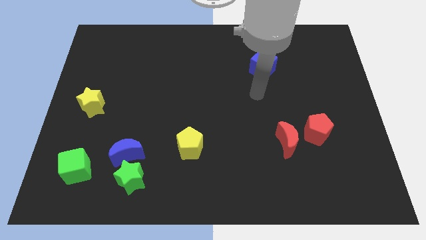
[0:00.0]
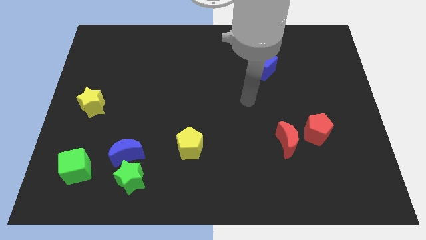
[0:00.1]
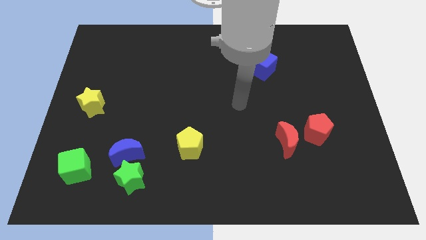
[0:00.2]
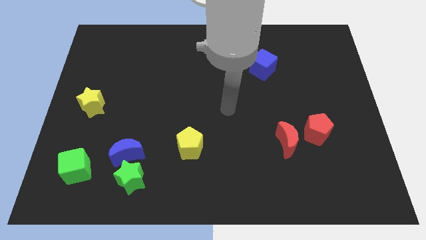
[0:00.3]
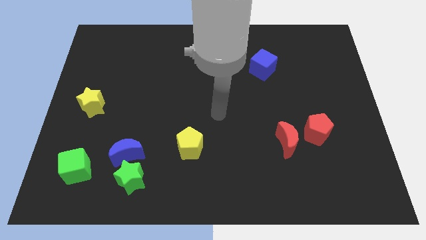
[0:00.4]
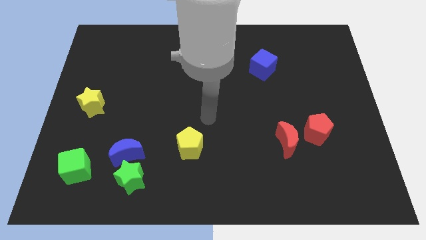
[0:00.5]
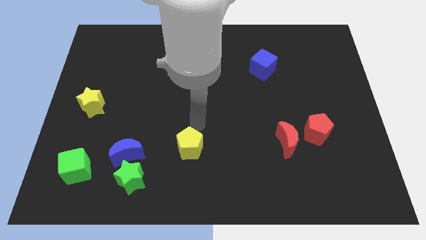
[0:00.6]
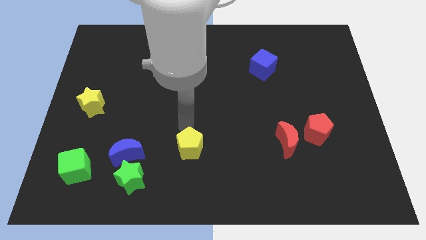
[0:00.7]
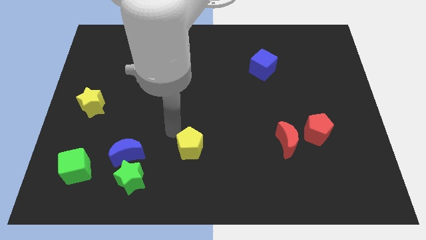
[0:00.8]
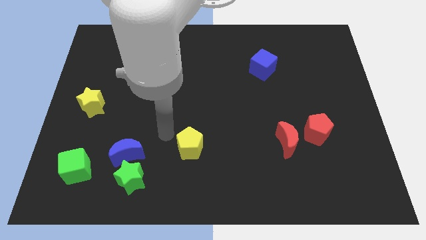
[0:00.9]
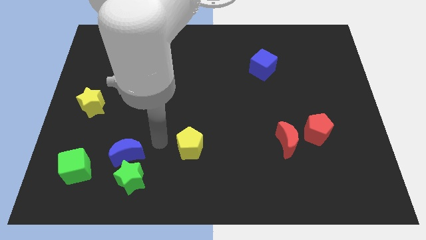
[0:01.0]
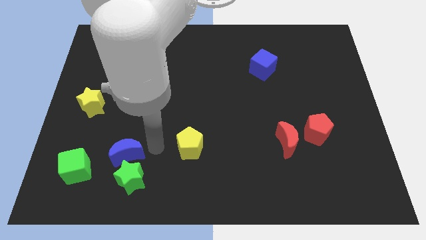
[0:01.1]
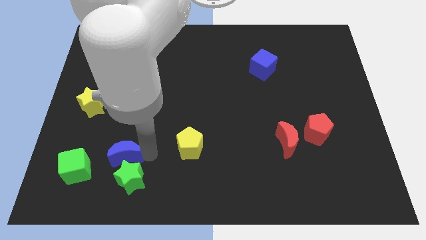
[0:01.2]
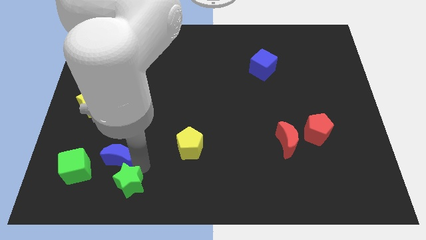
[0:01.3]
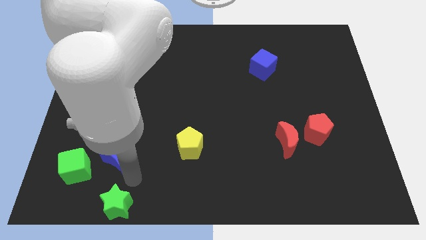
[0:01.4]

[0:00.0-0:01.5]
pull the blue moon apart from the green star

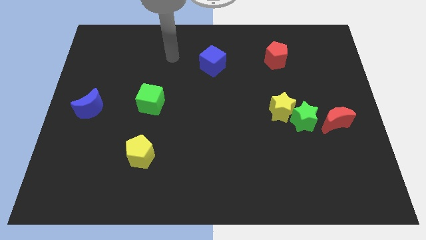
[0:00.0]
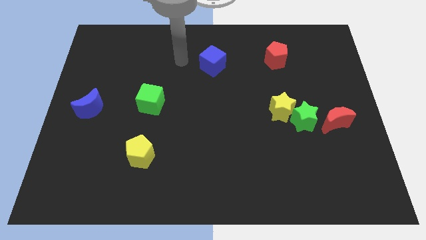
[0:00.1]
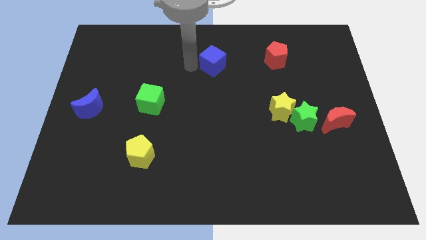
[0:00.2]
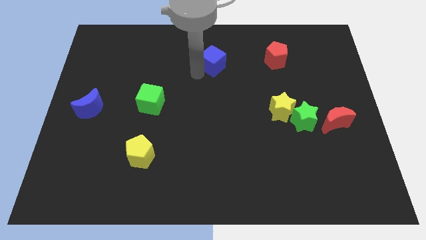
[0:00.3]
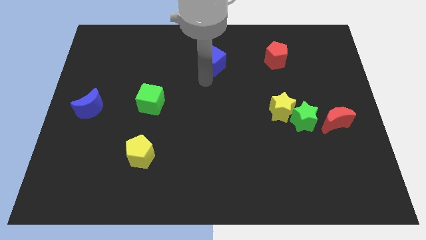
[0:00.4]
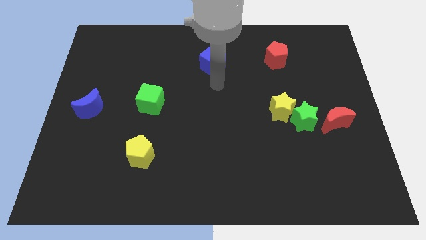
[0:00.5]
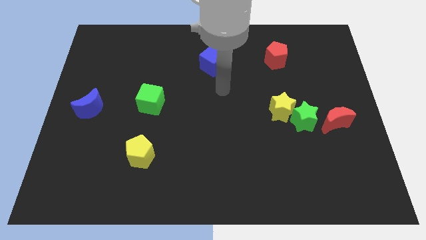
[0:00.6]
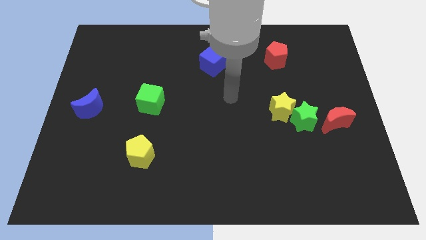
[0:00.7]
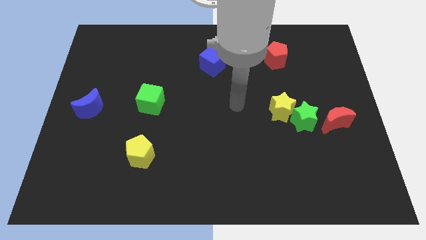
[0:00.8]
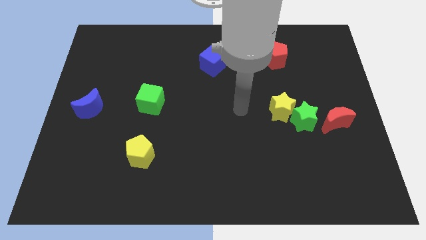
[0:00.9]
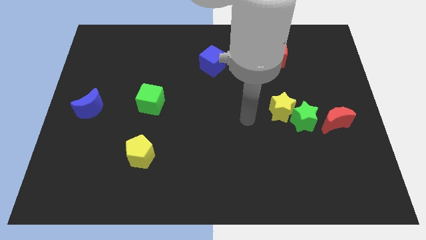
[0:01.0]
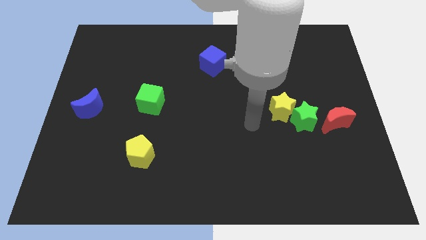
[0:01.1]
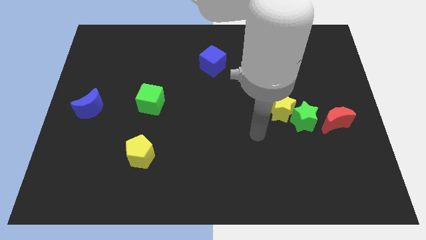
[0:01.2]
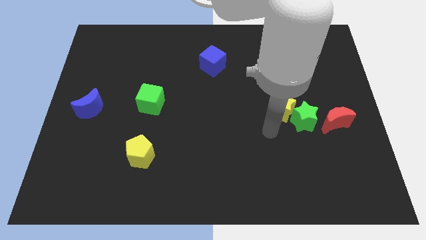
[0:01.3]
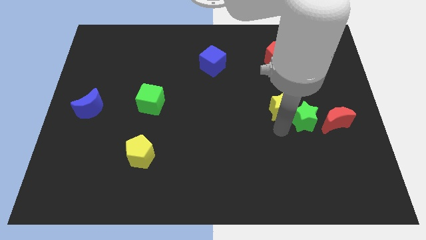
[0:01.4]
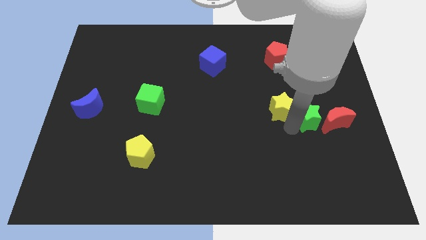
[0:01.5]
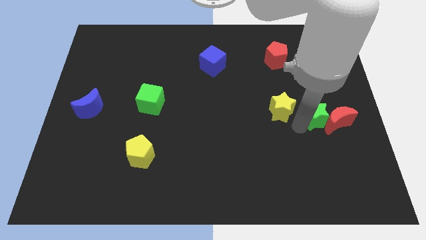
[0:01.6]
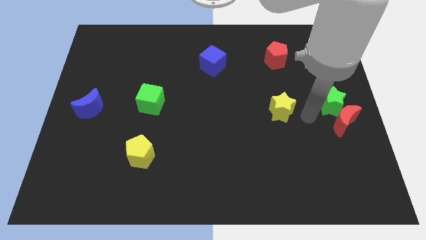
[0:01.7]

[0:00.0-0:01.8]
separate the yellow star from the green star

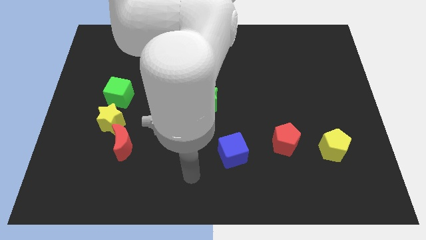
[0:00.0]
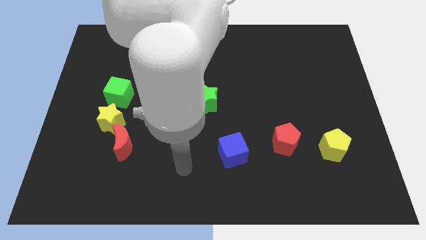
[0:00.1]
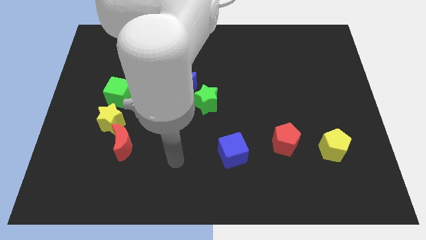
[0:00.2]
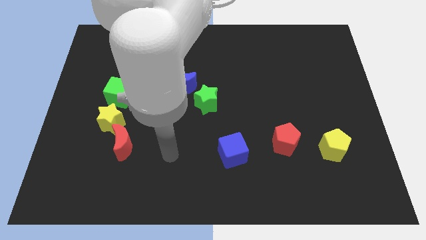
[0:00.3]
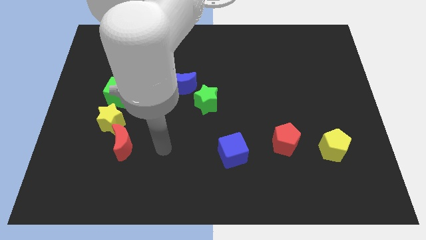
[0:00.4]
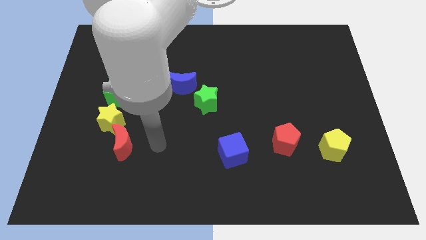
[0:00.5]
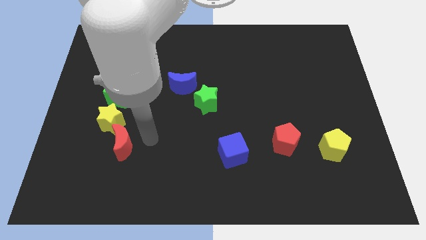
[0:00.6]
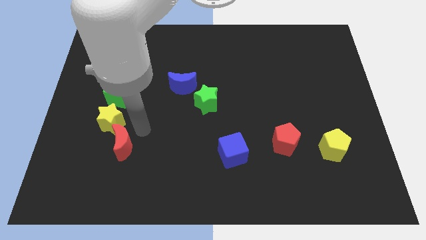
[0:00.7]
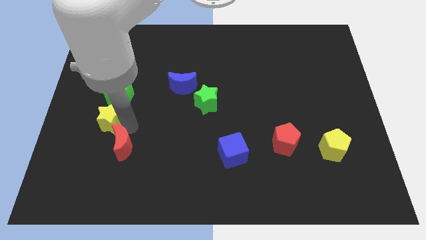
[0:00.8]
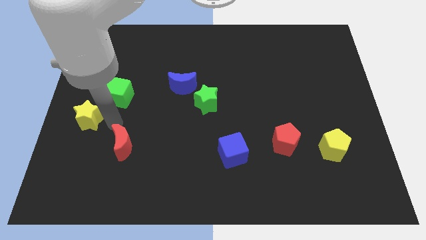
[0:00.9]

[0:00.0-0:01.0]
separate the red moon from the yellow star

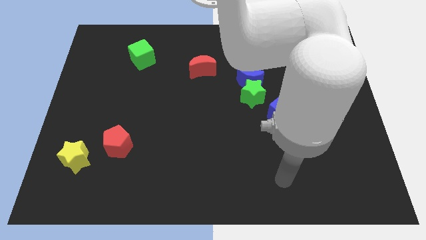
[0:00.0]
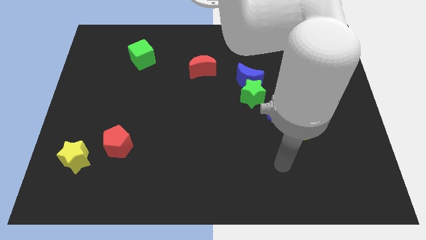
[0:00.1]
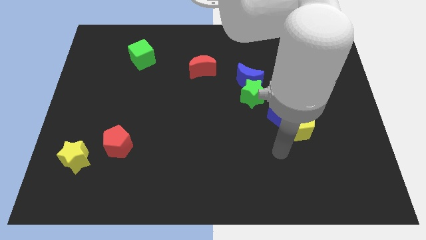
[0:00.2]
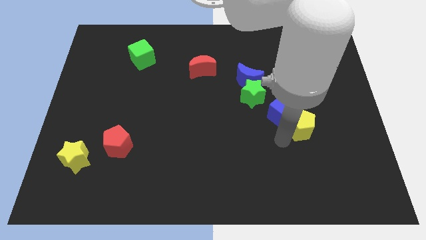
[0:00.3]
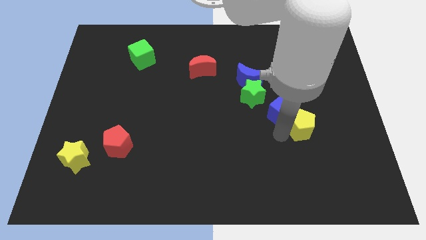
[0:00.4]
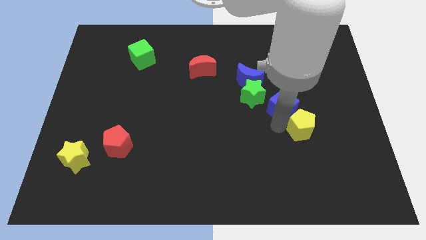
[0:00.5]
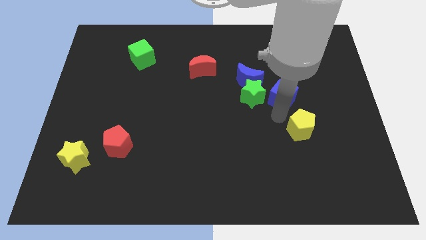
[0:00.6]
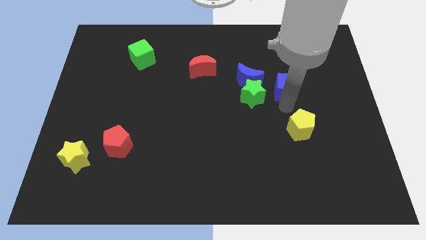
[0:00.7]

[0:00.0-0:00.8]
pull the yellow pentagon apart from the blue cube

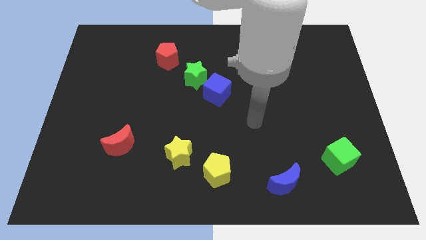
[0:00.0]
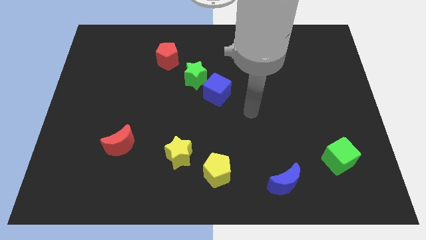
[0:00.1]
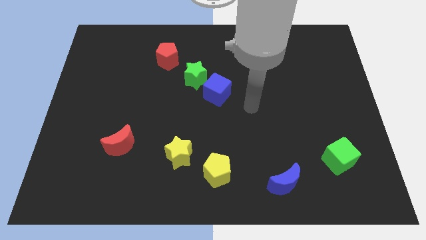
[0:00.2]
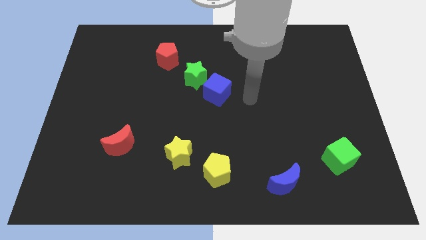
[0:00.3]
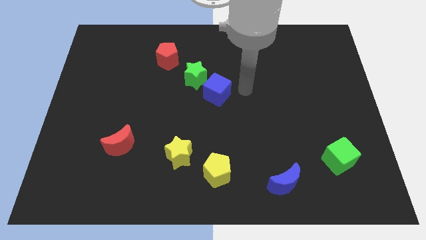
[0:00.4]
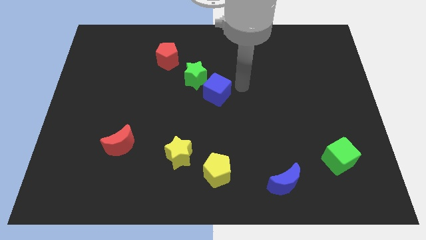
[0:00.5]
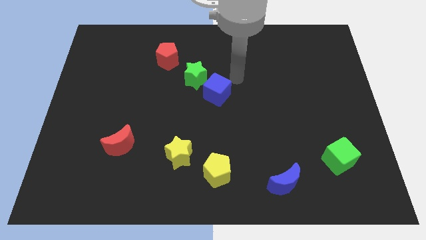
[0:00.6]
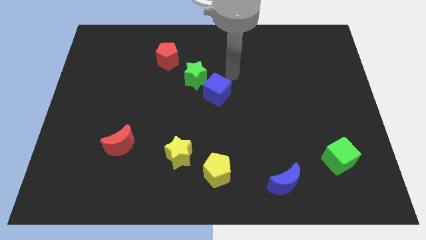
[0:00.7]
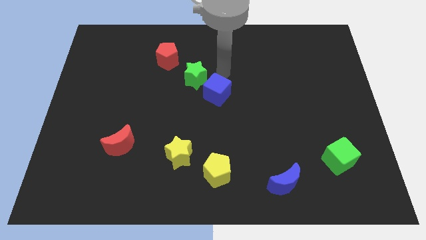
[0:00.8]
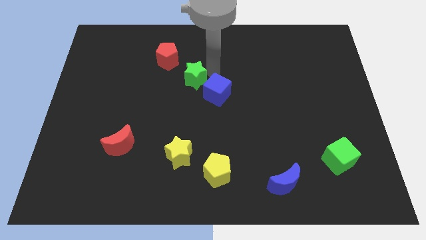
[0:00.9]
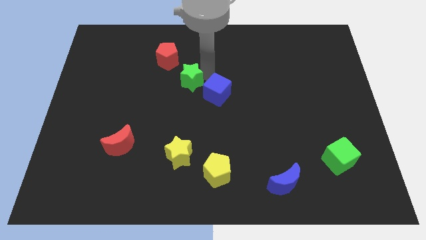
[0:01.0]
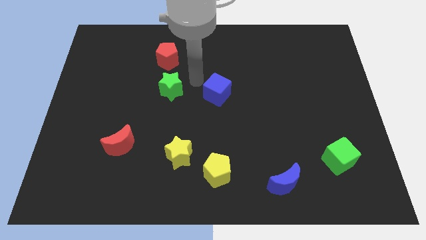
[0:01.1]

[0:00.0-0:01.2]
move the blue cube away from the green star

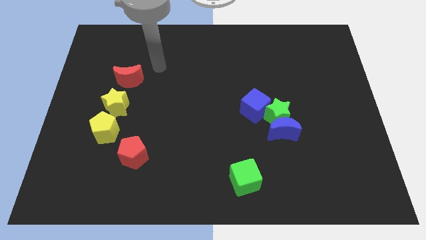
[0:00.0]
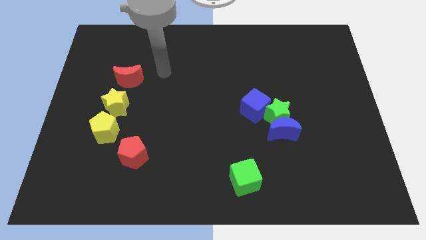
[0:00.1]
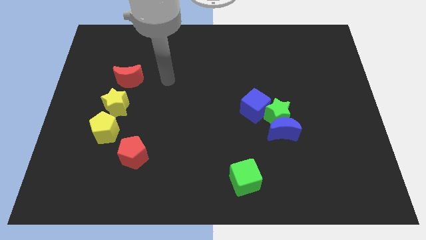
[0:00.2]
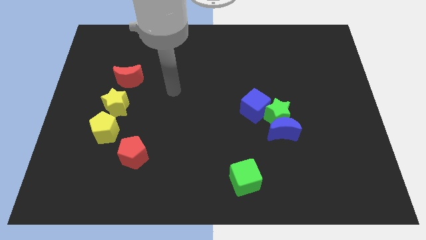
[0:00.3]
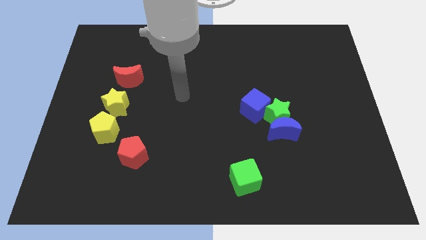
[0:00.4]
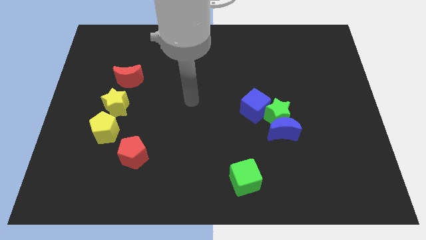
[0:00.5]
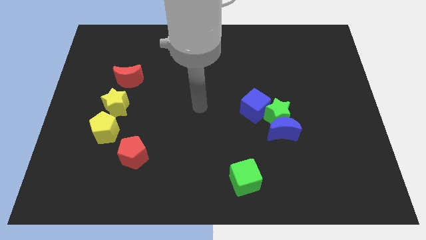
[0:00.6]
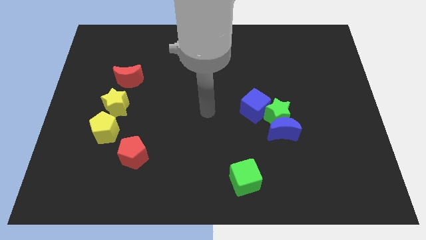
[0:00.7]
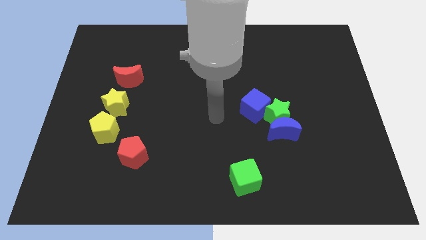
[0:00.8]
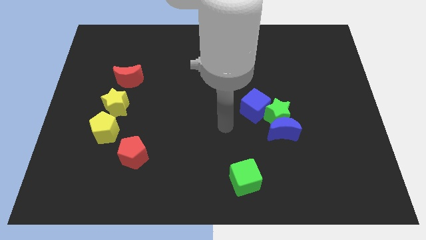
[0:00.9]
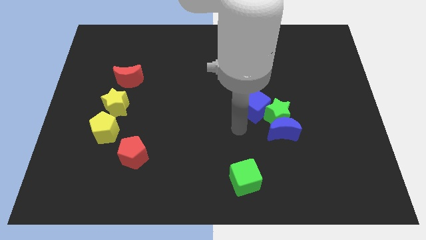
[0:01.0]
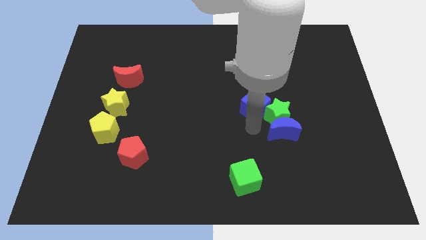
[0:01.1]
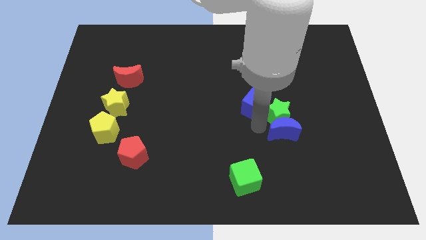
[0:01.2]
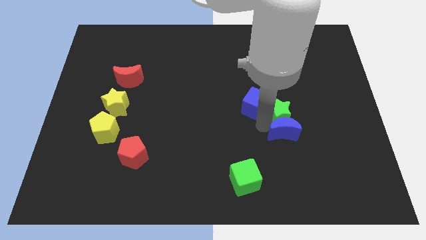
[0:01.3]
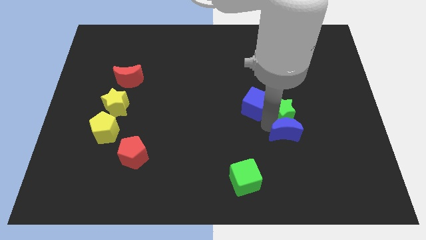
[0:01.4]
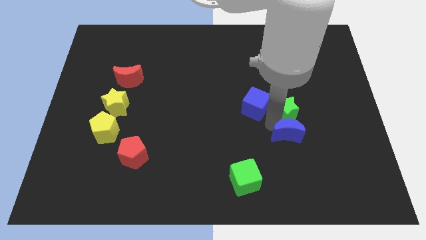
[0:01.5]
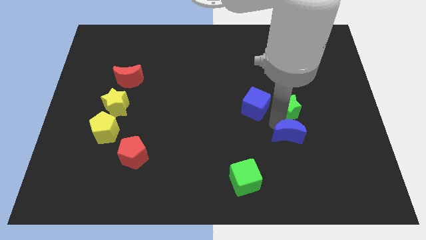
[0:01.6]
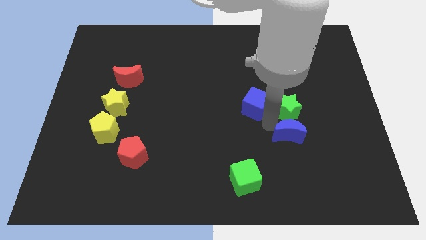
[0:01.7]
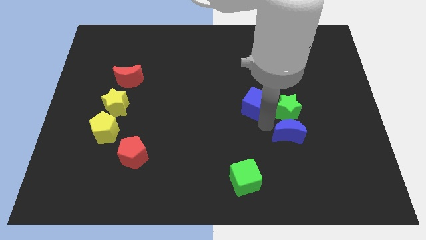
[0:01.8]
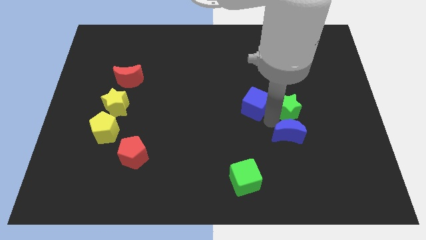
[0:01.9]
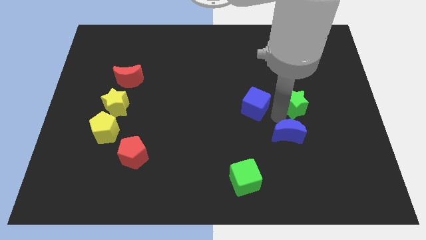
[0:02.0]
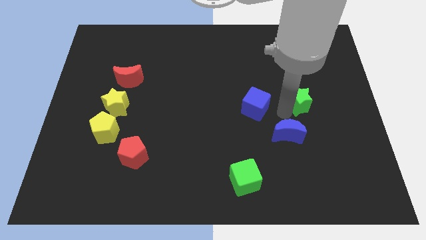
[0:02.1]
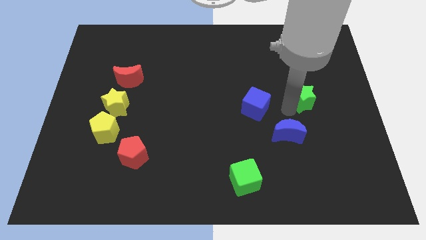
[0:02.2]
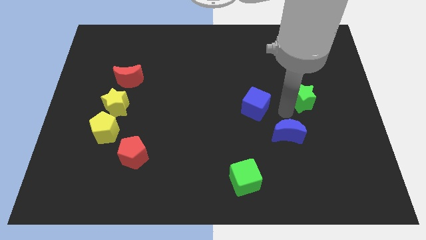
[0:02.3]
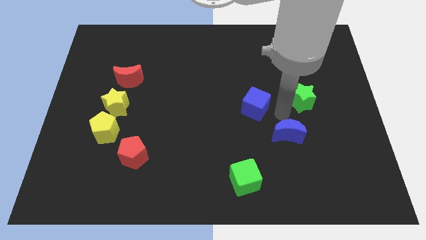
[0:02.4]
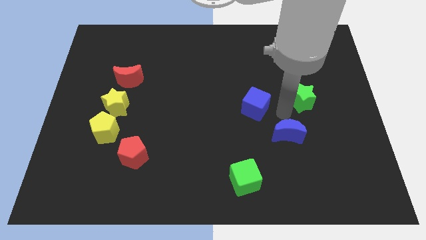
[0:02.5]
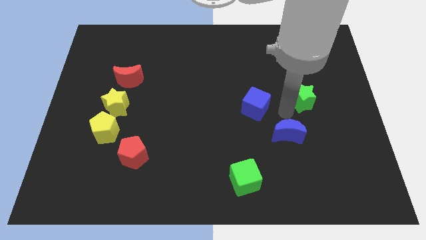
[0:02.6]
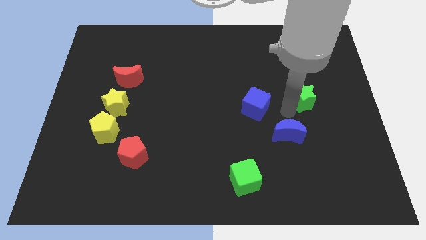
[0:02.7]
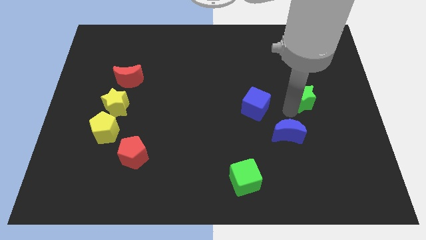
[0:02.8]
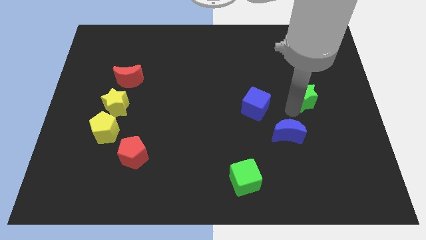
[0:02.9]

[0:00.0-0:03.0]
move the green star away from the blue moon and blue cube
